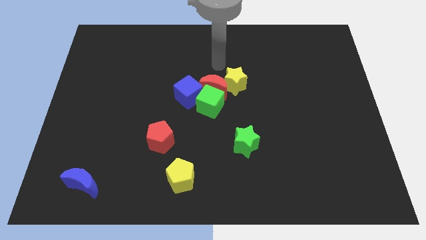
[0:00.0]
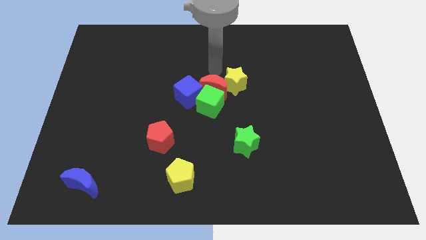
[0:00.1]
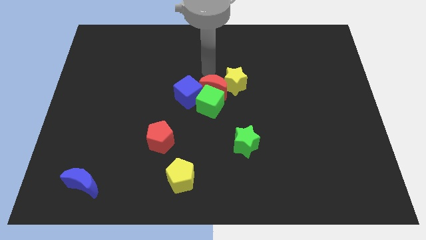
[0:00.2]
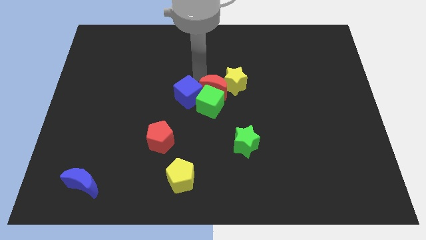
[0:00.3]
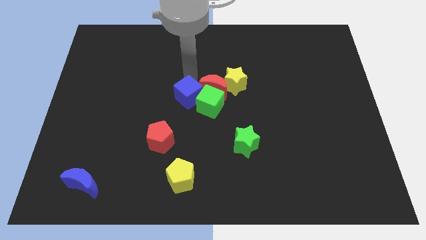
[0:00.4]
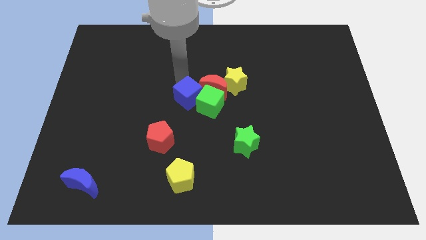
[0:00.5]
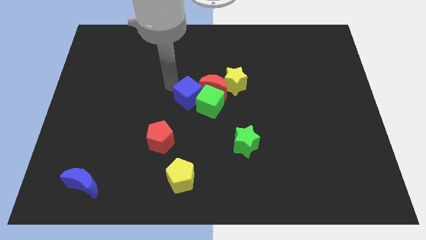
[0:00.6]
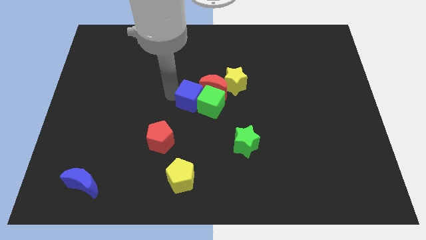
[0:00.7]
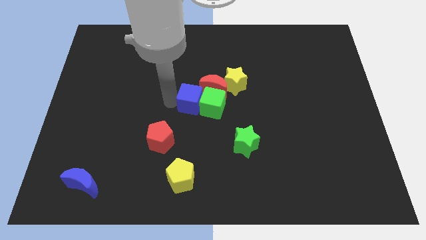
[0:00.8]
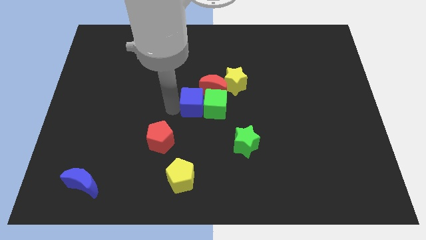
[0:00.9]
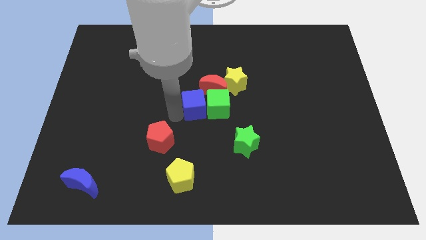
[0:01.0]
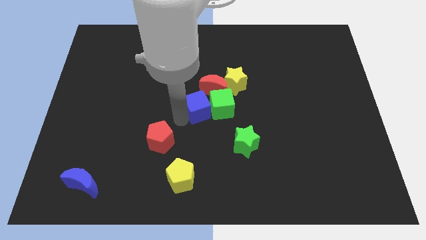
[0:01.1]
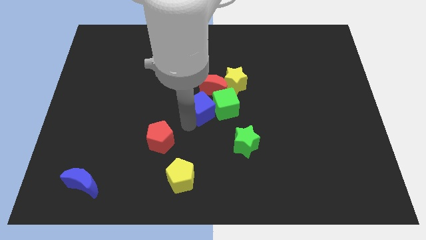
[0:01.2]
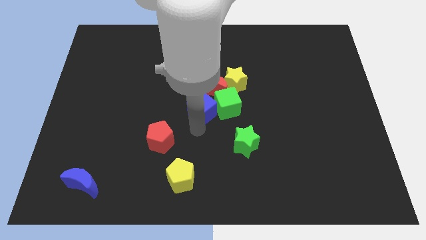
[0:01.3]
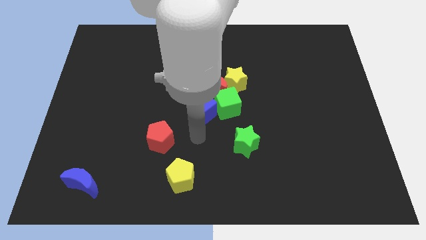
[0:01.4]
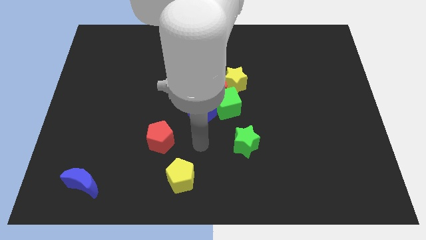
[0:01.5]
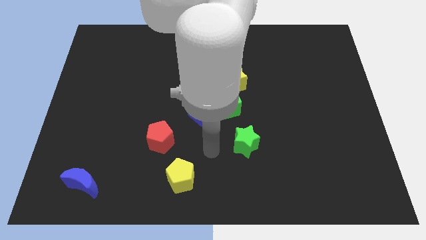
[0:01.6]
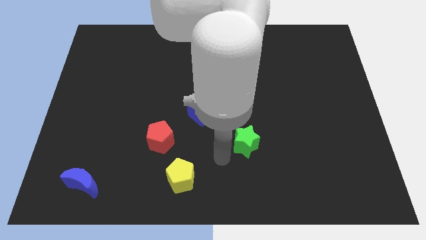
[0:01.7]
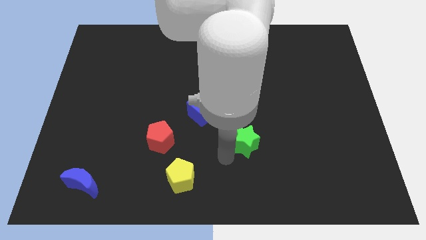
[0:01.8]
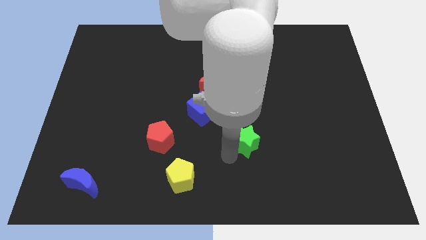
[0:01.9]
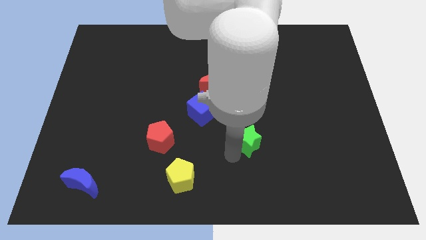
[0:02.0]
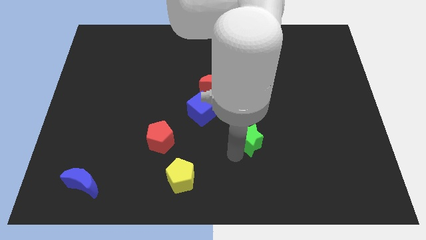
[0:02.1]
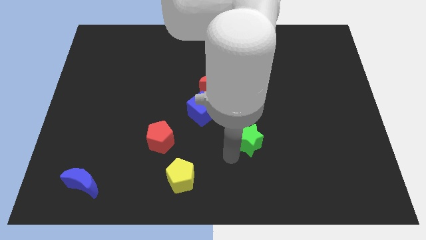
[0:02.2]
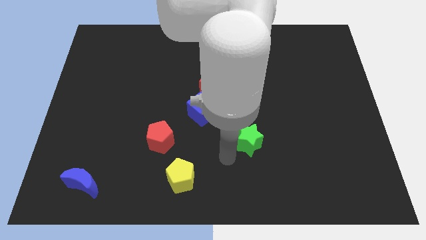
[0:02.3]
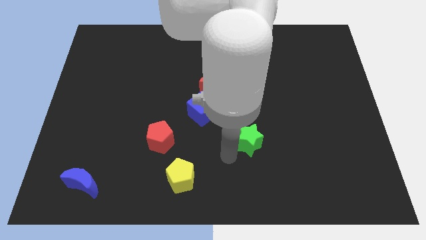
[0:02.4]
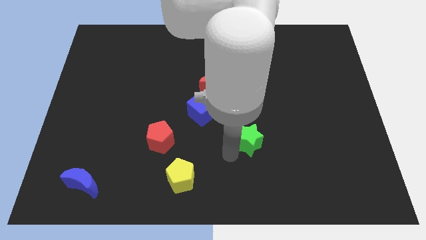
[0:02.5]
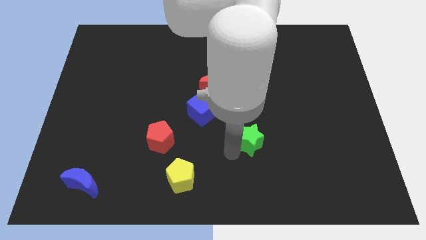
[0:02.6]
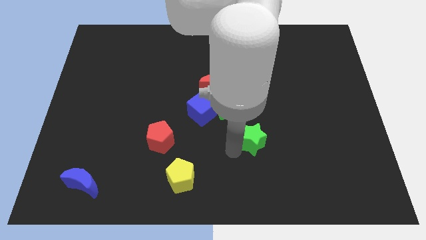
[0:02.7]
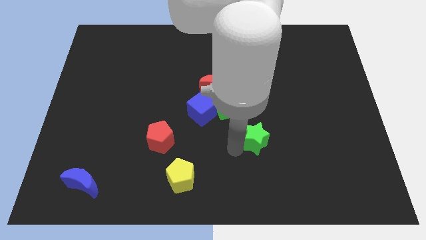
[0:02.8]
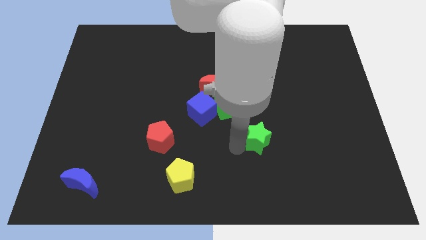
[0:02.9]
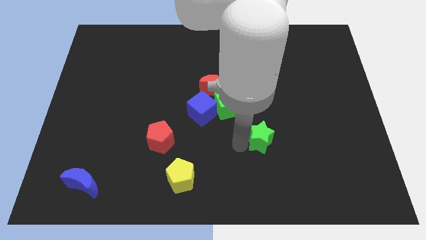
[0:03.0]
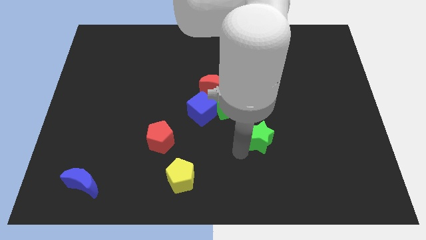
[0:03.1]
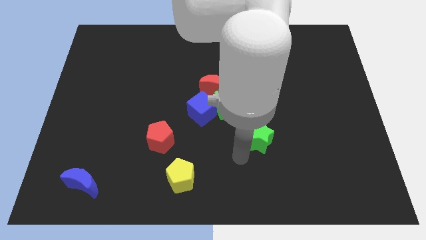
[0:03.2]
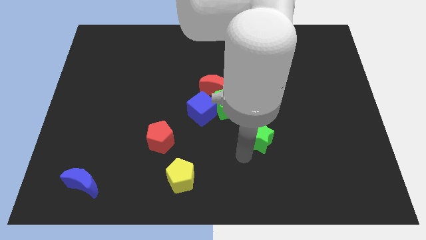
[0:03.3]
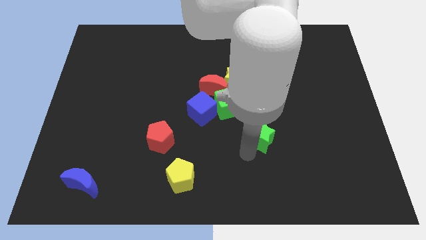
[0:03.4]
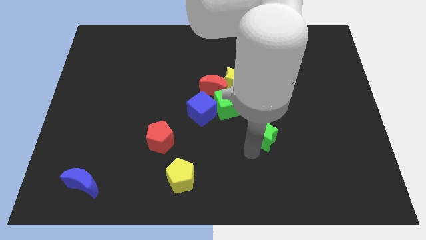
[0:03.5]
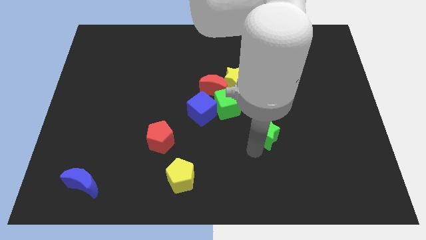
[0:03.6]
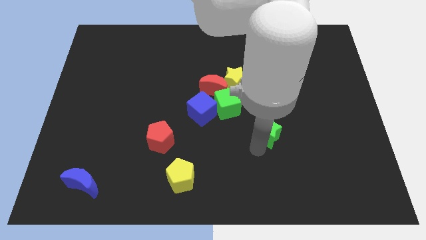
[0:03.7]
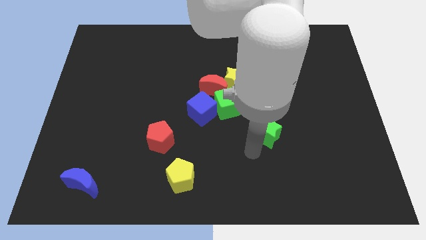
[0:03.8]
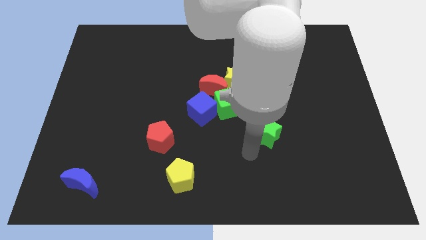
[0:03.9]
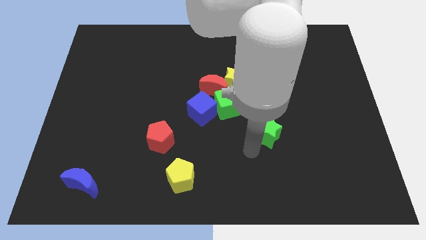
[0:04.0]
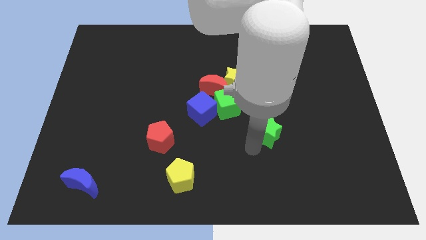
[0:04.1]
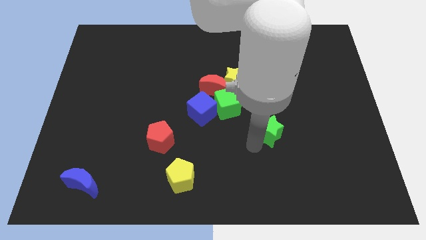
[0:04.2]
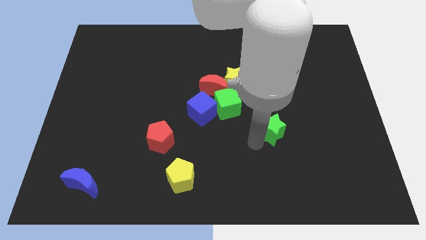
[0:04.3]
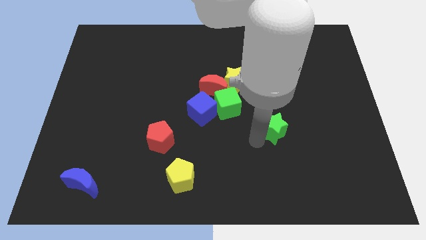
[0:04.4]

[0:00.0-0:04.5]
push the green star a little bit up and right diagonally

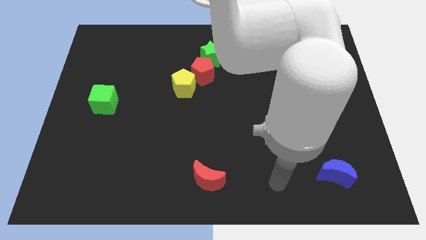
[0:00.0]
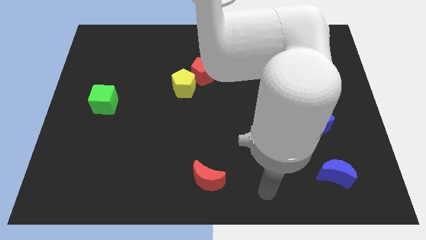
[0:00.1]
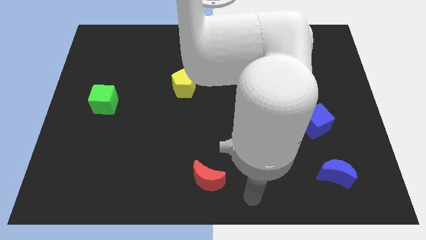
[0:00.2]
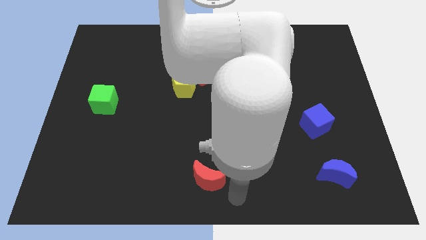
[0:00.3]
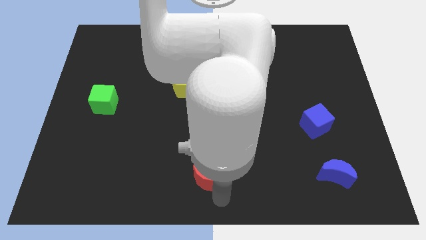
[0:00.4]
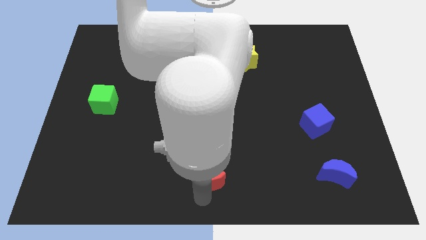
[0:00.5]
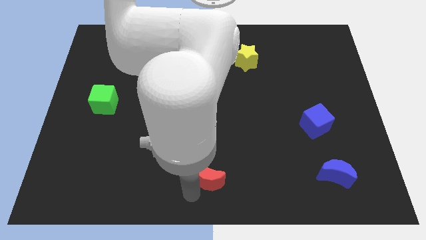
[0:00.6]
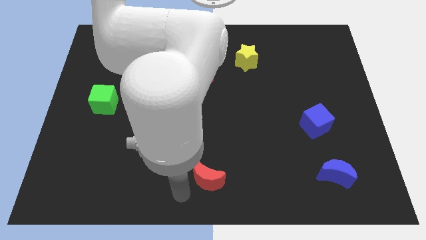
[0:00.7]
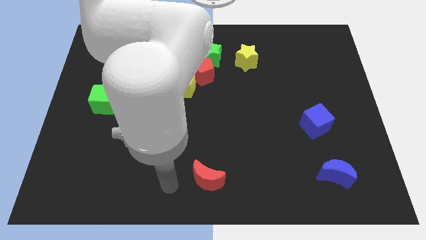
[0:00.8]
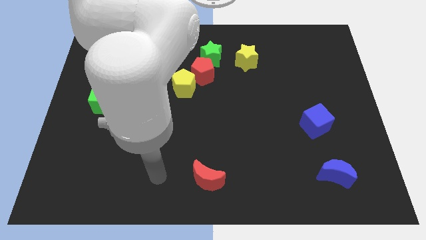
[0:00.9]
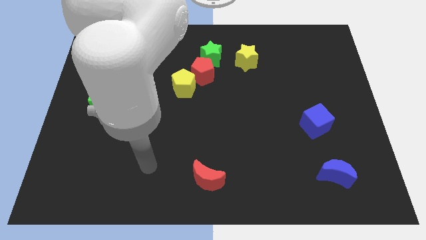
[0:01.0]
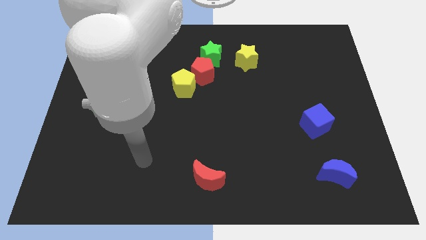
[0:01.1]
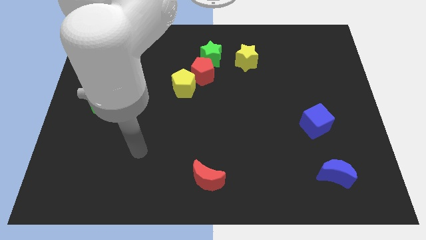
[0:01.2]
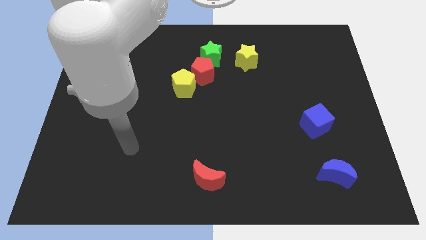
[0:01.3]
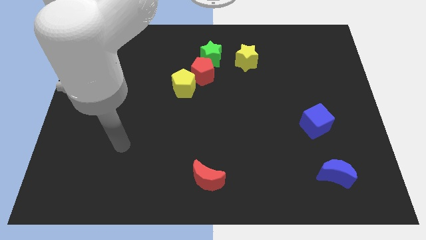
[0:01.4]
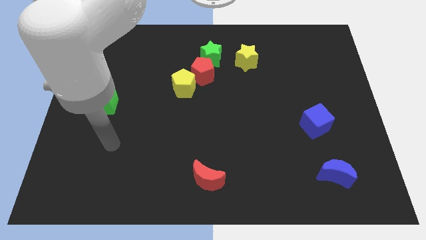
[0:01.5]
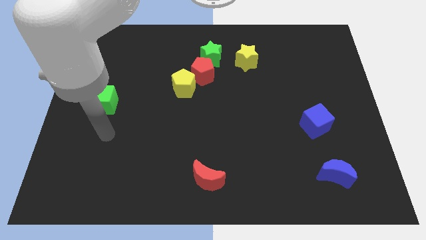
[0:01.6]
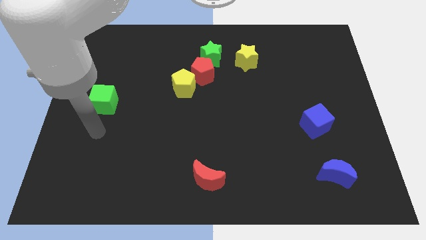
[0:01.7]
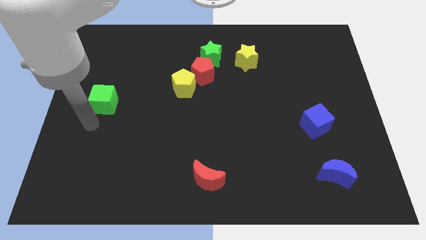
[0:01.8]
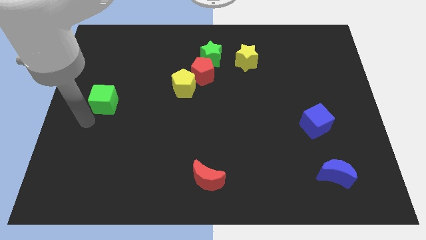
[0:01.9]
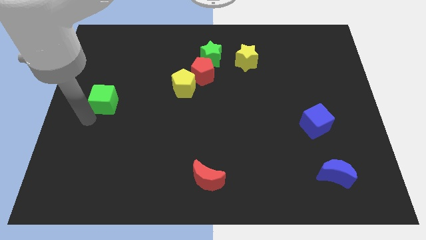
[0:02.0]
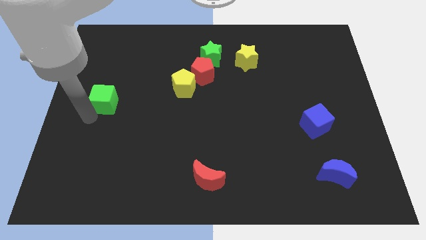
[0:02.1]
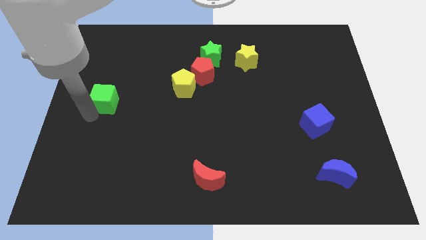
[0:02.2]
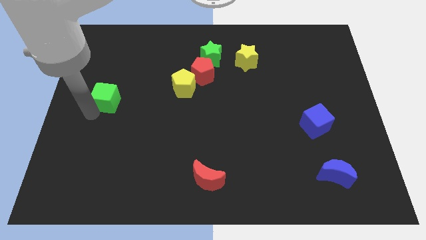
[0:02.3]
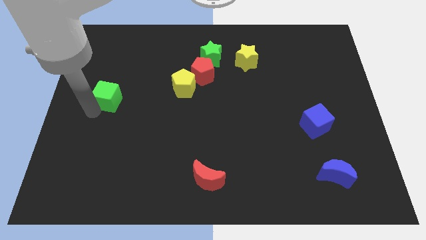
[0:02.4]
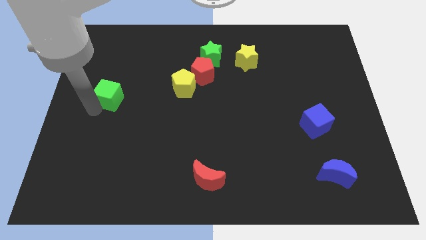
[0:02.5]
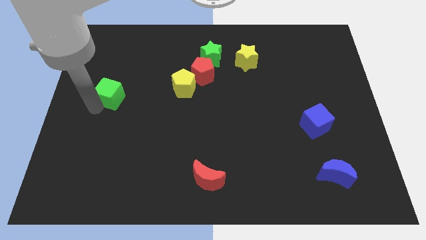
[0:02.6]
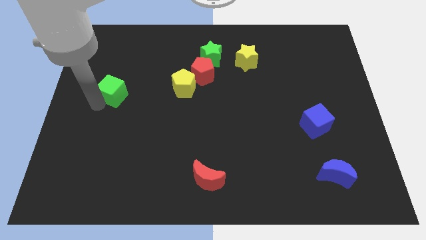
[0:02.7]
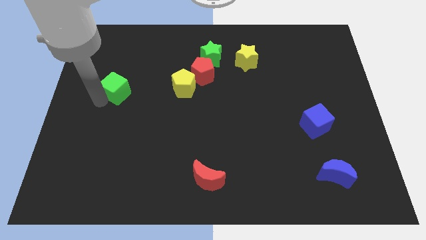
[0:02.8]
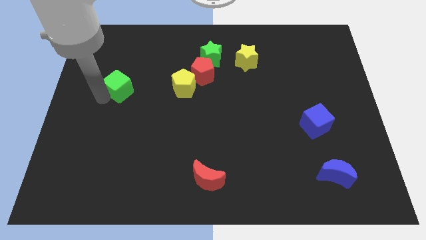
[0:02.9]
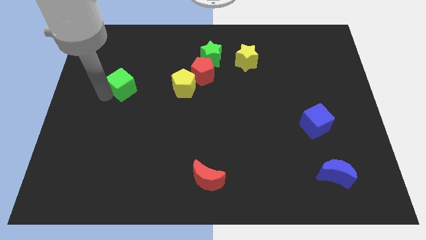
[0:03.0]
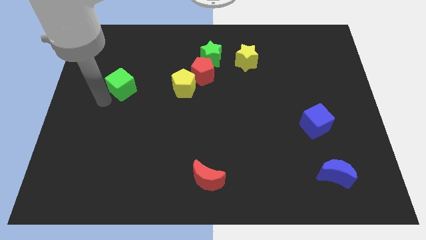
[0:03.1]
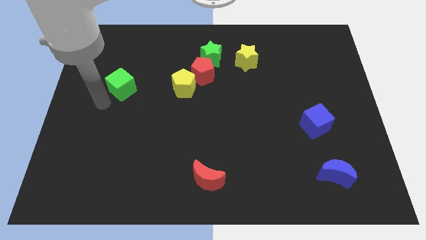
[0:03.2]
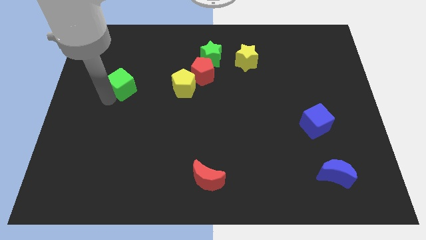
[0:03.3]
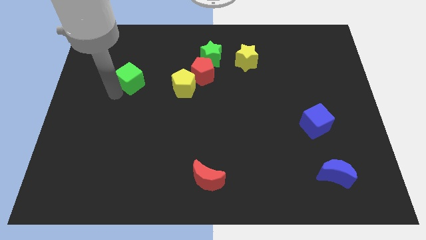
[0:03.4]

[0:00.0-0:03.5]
push the green cube somewhat upwards and to the right diagonally

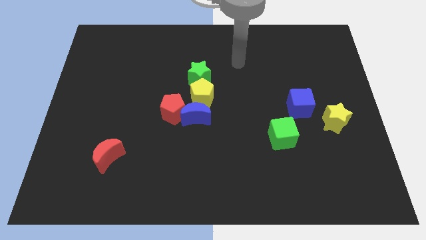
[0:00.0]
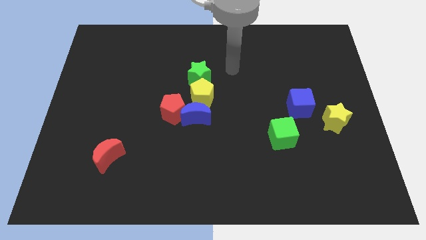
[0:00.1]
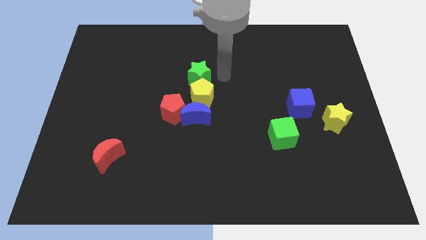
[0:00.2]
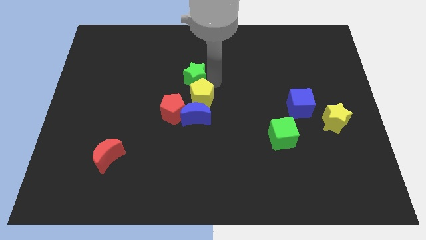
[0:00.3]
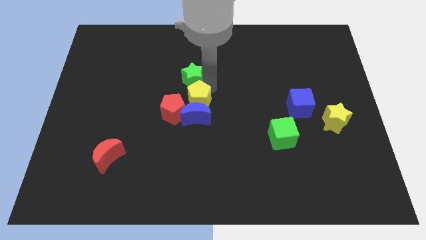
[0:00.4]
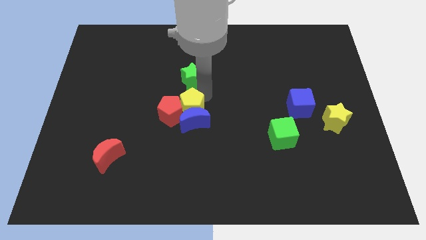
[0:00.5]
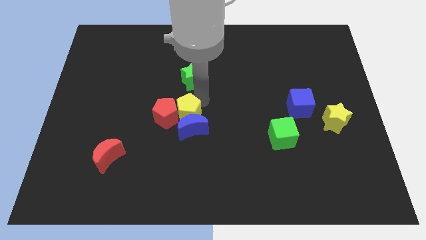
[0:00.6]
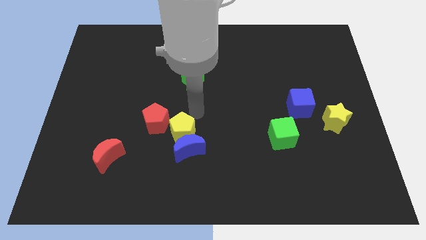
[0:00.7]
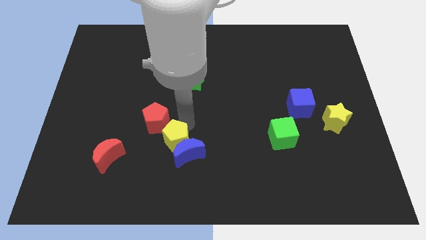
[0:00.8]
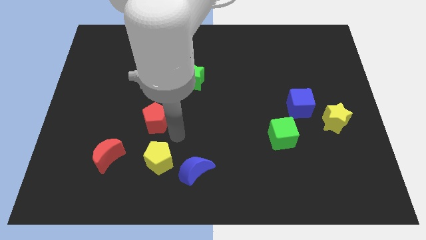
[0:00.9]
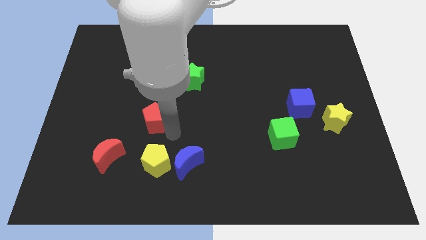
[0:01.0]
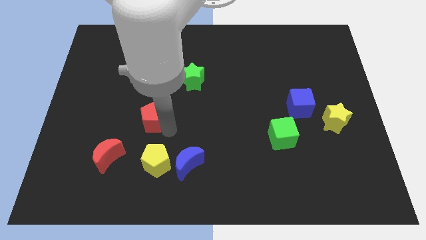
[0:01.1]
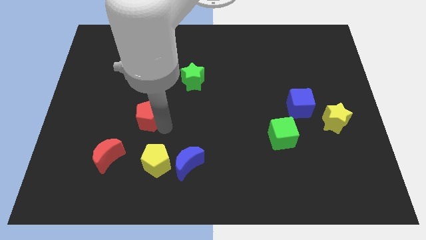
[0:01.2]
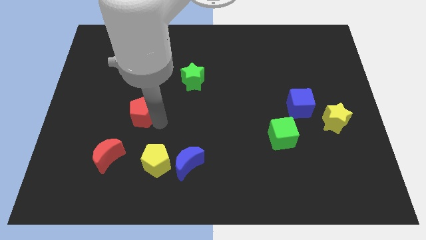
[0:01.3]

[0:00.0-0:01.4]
slide the red pentagon somewhat to the left
